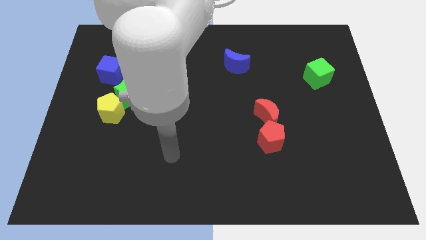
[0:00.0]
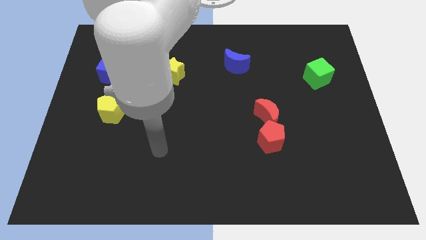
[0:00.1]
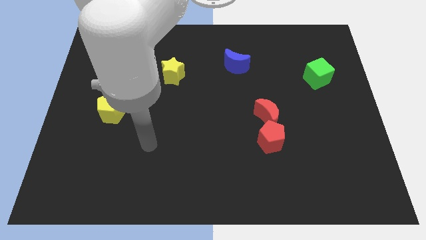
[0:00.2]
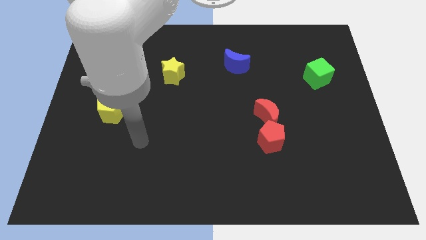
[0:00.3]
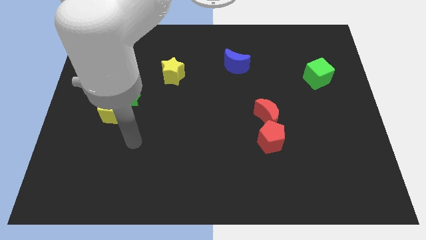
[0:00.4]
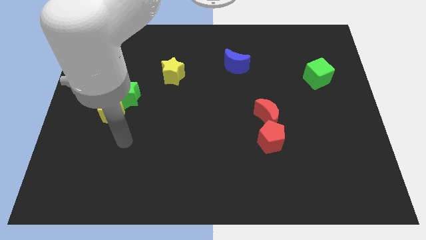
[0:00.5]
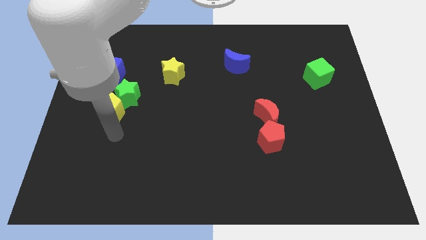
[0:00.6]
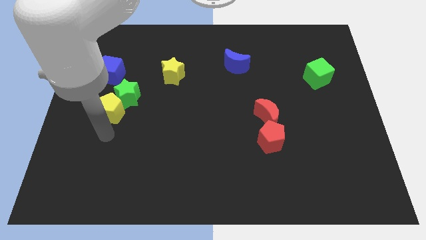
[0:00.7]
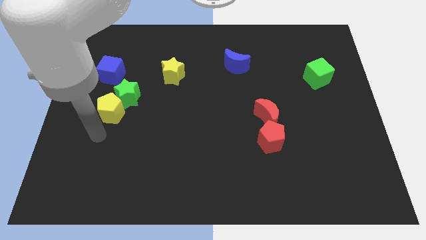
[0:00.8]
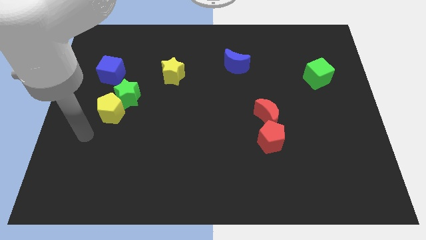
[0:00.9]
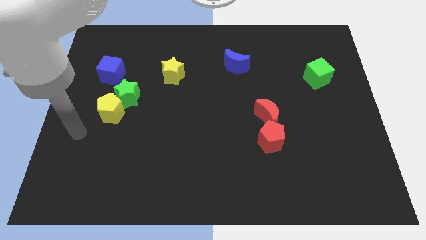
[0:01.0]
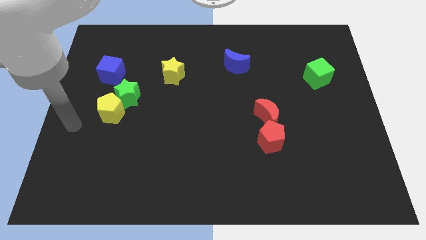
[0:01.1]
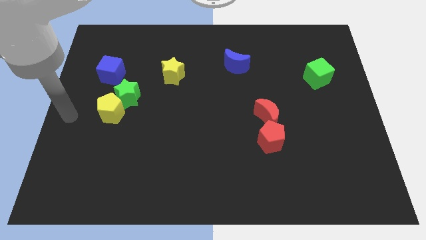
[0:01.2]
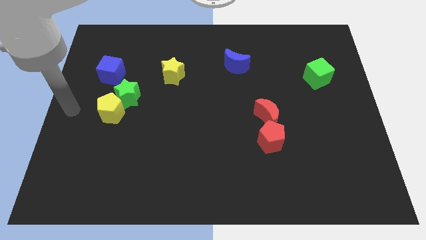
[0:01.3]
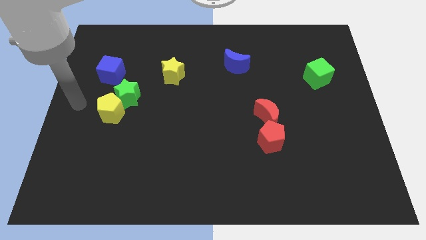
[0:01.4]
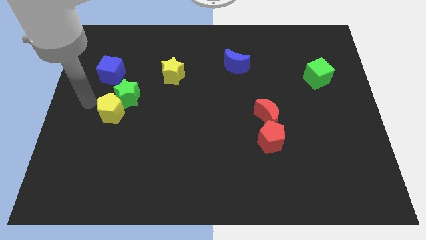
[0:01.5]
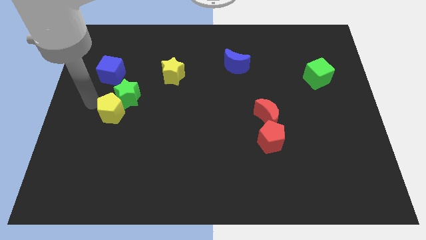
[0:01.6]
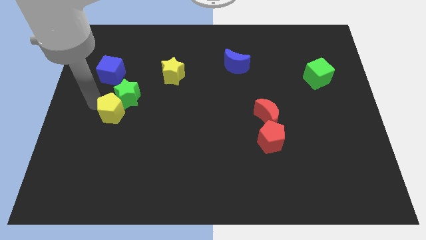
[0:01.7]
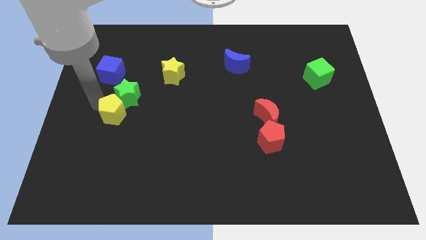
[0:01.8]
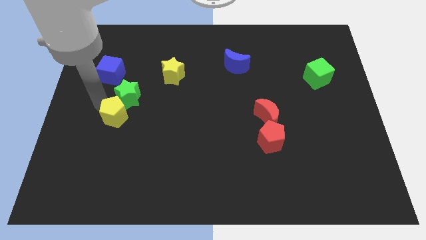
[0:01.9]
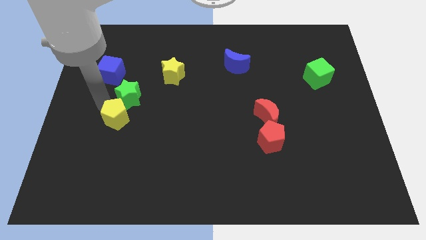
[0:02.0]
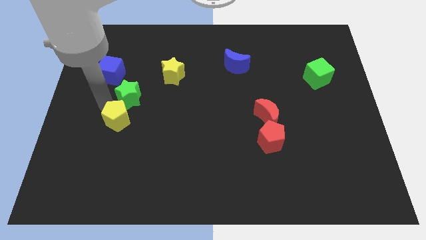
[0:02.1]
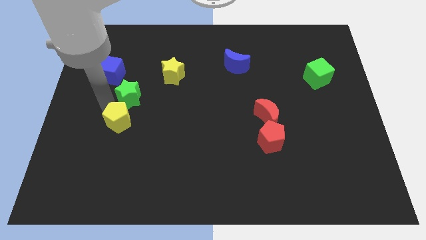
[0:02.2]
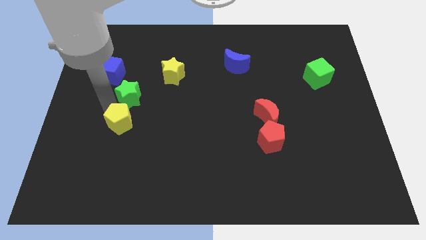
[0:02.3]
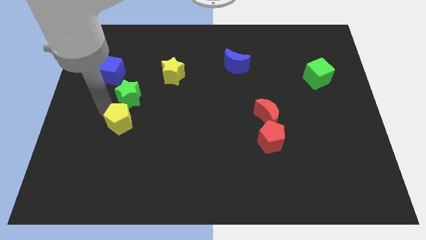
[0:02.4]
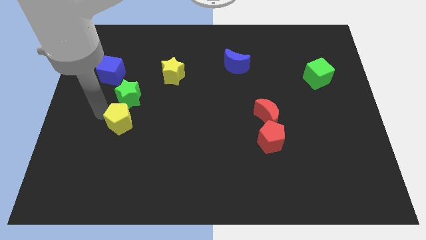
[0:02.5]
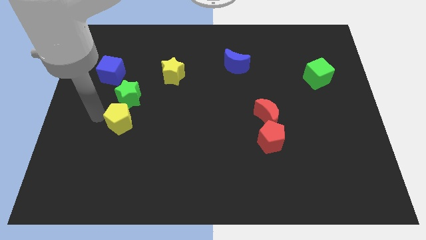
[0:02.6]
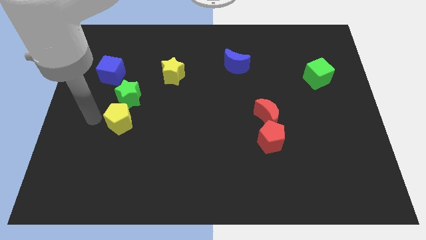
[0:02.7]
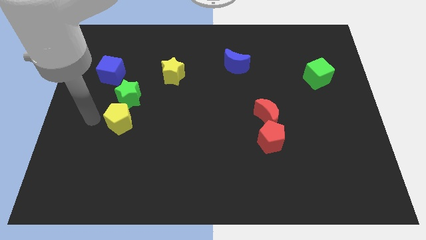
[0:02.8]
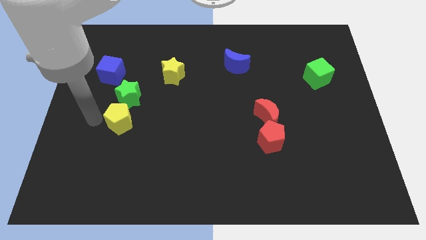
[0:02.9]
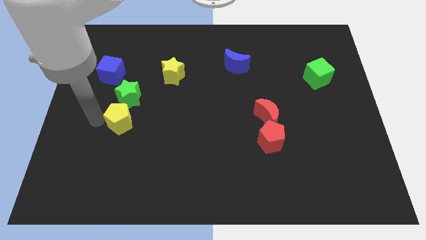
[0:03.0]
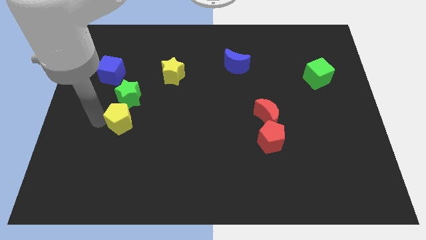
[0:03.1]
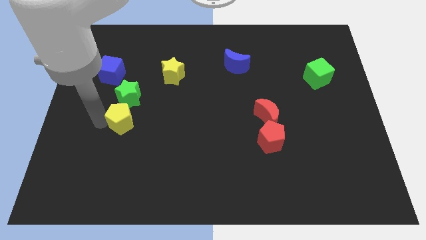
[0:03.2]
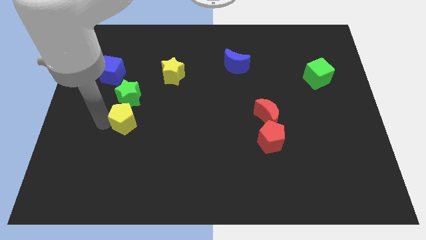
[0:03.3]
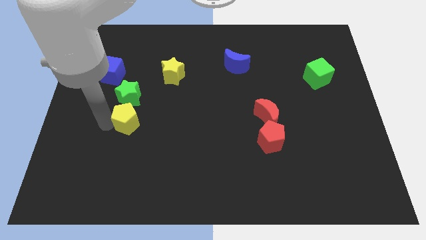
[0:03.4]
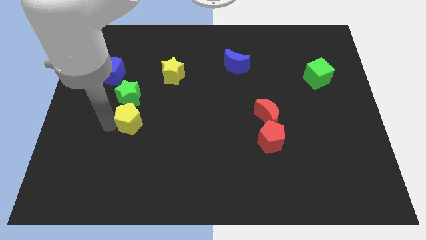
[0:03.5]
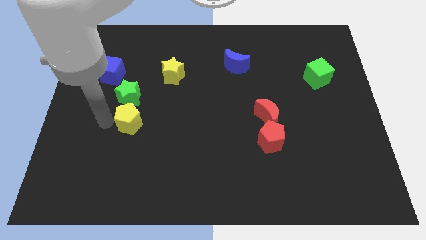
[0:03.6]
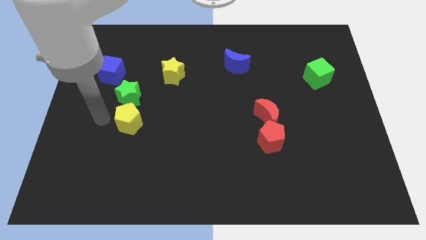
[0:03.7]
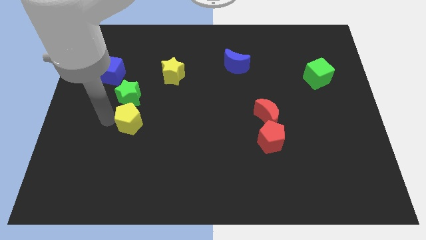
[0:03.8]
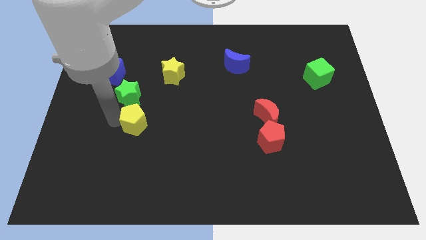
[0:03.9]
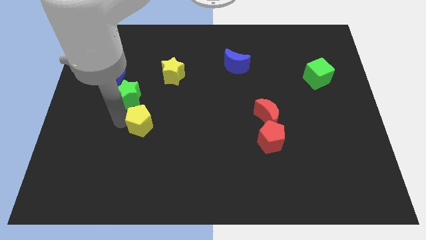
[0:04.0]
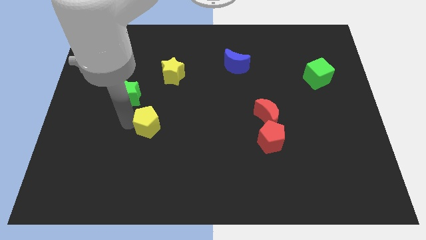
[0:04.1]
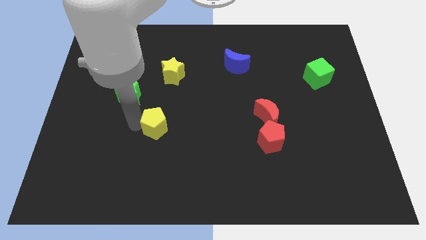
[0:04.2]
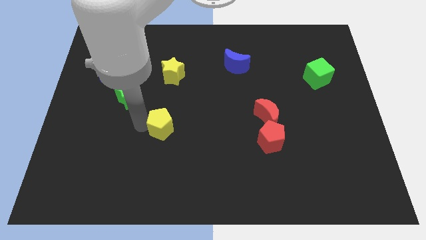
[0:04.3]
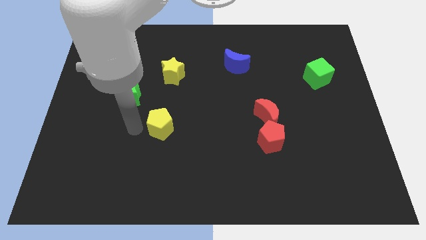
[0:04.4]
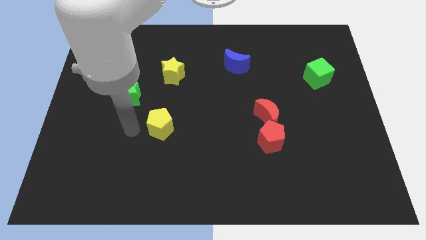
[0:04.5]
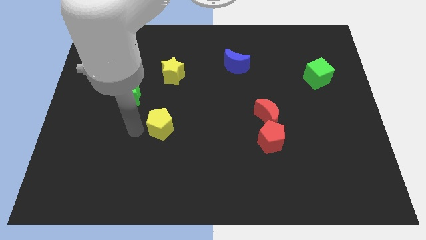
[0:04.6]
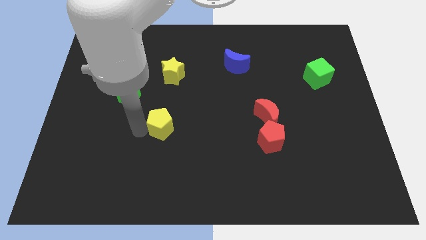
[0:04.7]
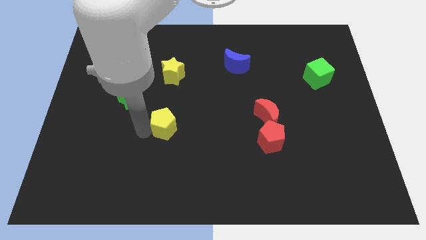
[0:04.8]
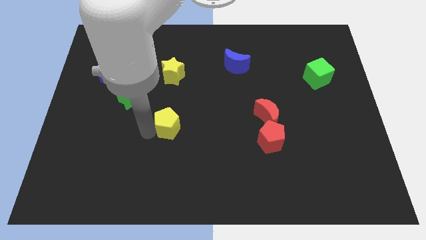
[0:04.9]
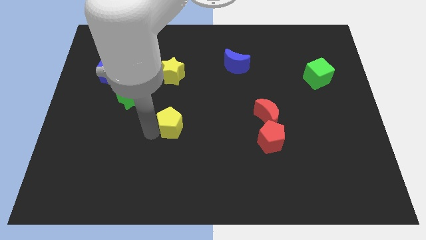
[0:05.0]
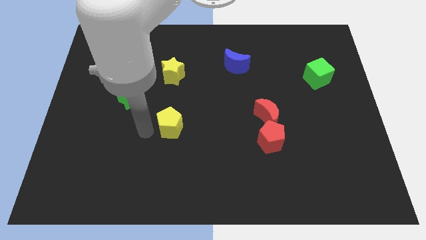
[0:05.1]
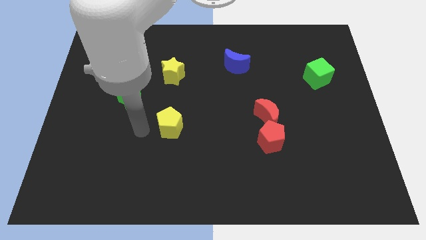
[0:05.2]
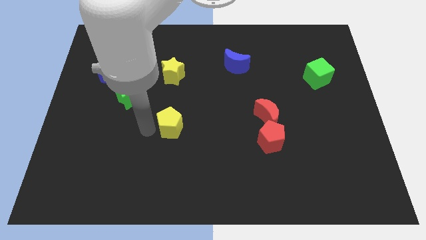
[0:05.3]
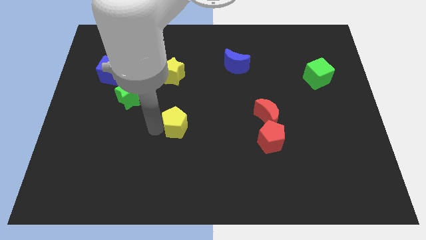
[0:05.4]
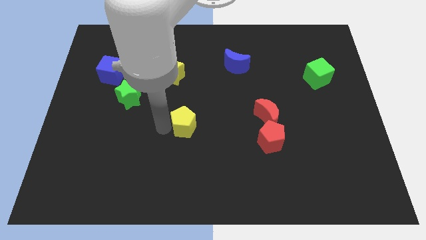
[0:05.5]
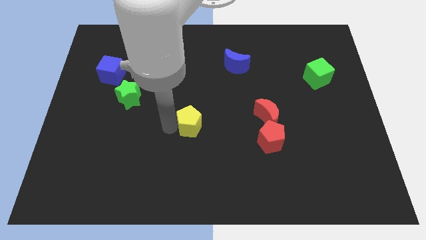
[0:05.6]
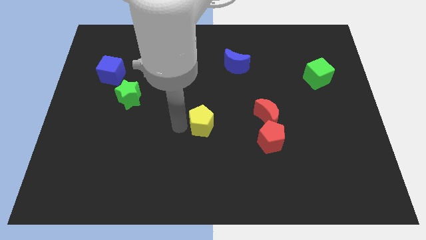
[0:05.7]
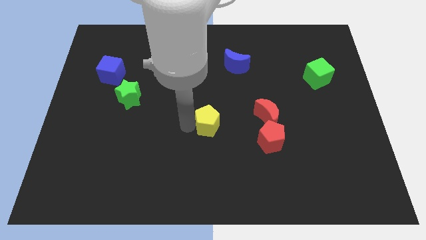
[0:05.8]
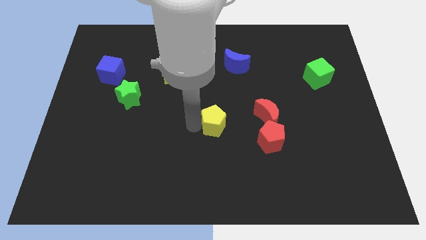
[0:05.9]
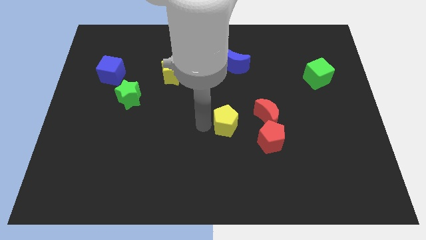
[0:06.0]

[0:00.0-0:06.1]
move the yellow pentagon diagonally up and to the left of the red pentagon

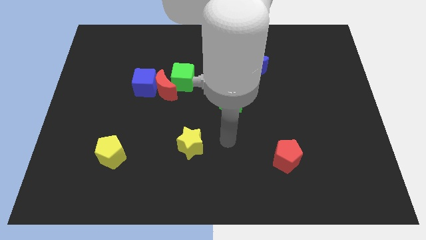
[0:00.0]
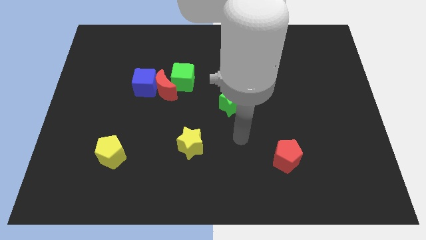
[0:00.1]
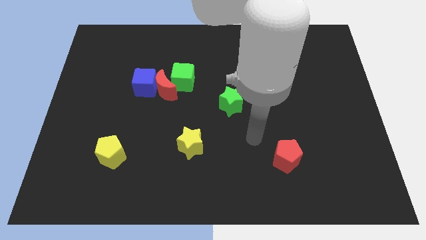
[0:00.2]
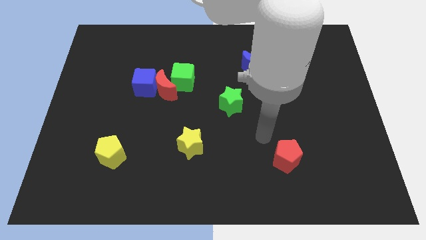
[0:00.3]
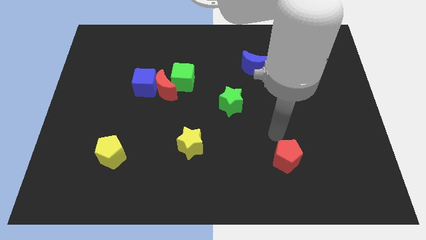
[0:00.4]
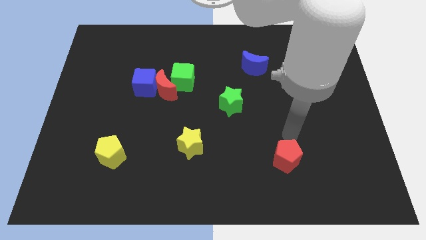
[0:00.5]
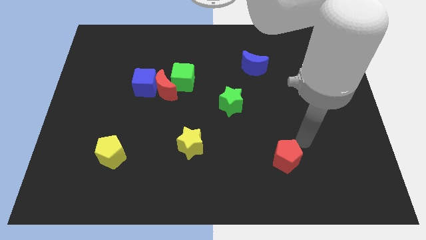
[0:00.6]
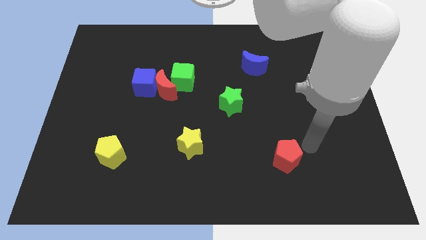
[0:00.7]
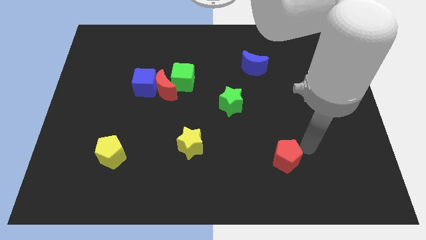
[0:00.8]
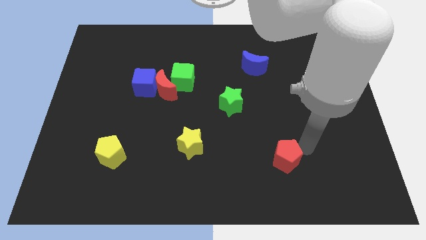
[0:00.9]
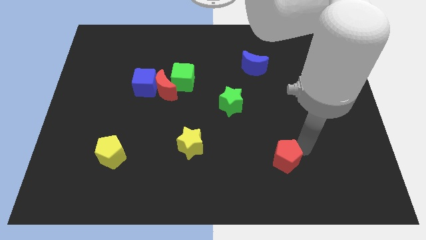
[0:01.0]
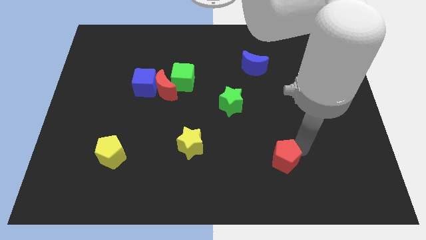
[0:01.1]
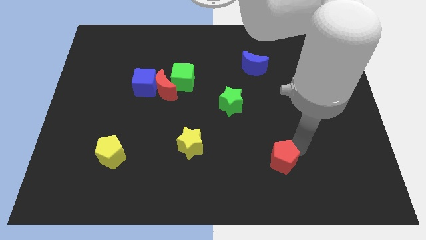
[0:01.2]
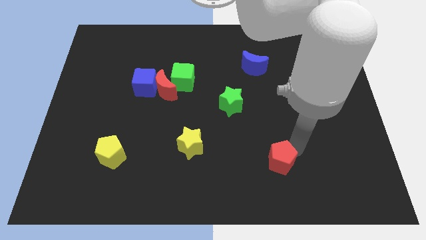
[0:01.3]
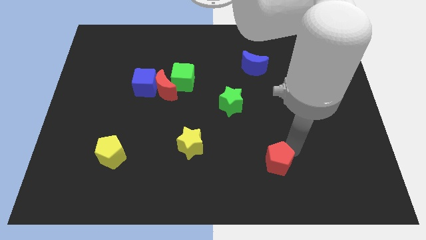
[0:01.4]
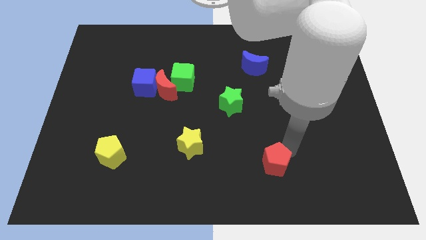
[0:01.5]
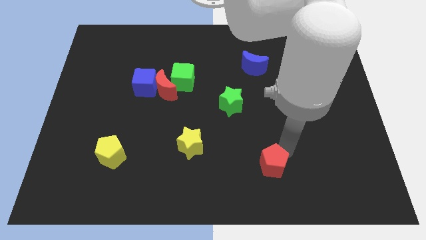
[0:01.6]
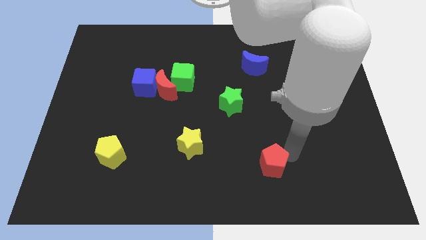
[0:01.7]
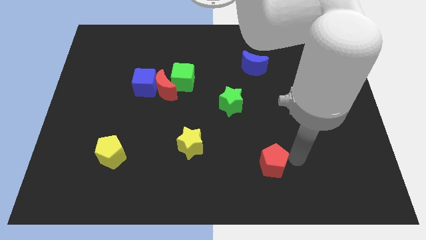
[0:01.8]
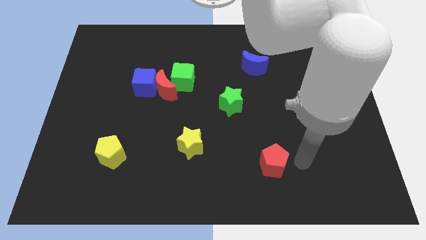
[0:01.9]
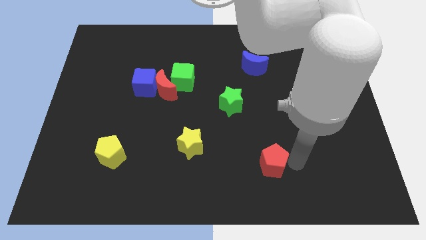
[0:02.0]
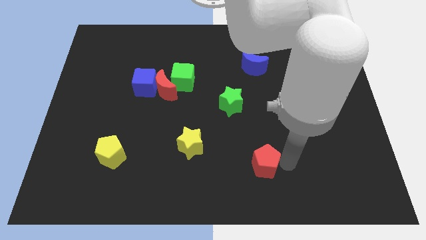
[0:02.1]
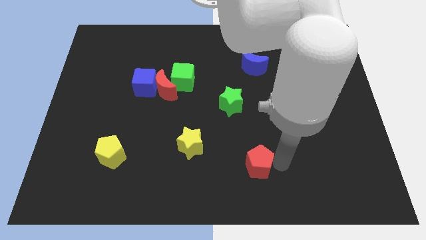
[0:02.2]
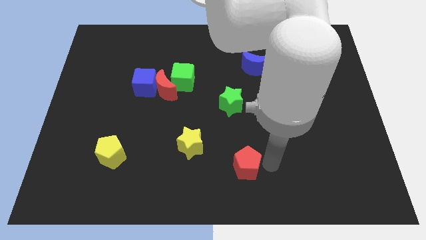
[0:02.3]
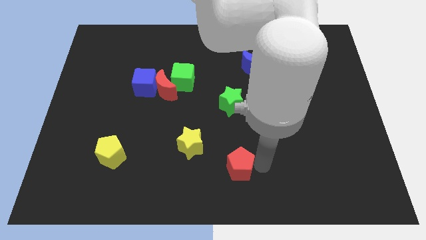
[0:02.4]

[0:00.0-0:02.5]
put the red pentagon to the bottom right side of the yellow star
